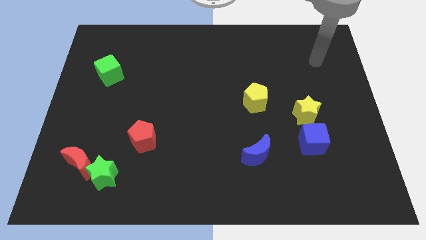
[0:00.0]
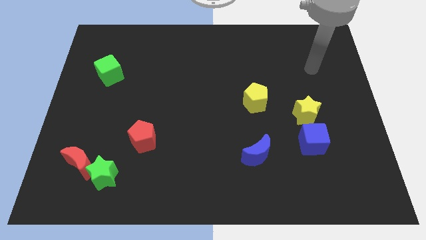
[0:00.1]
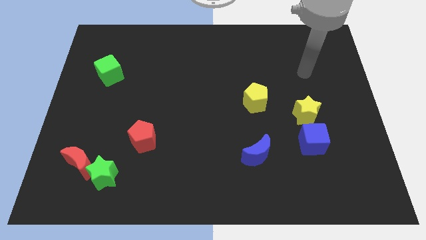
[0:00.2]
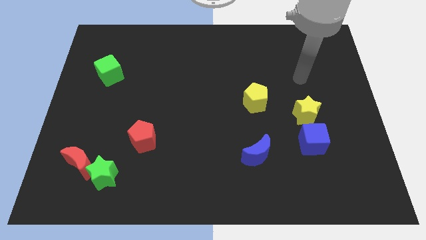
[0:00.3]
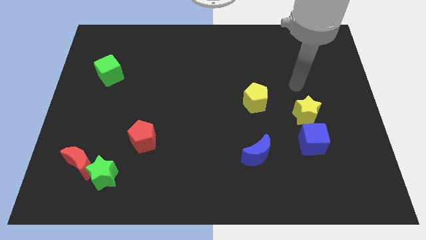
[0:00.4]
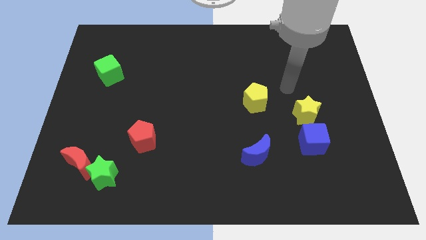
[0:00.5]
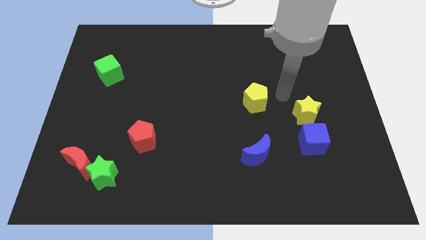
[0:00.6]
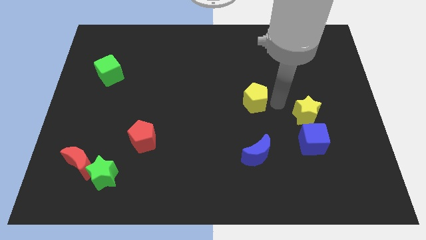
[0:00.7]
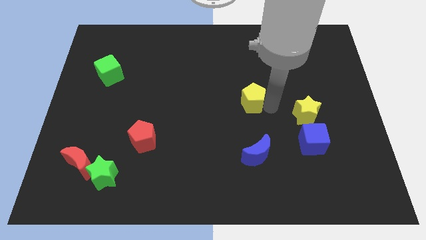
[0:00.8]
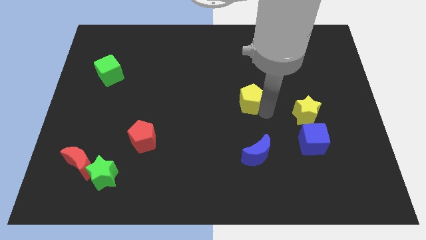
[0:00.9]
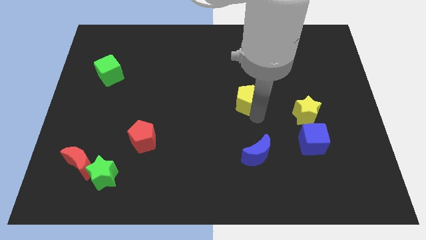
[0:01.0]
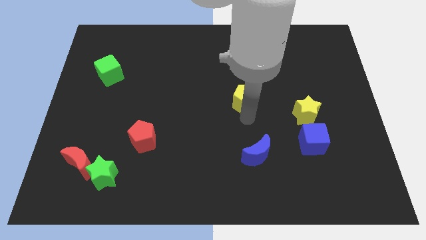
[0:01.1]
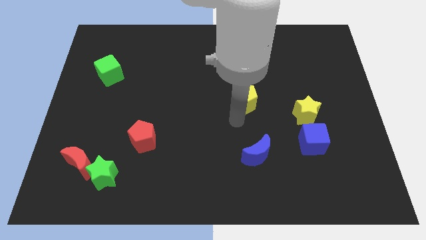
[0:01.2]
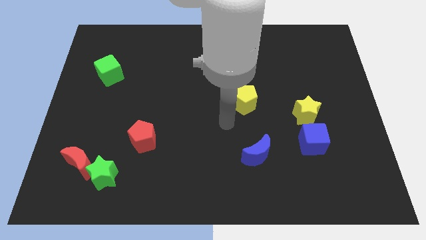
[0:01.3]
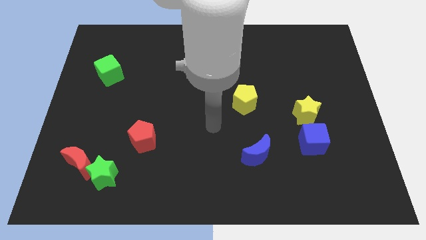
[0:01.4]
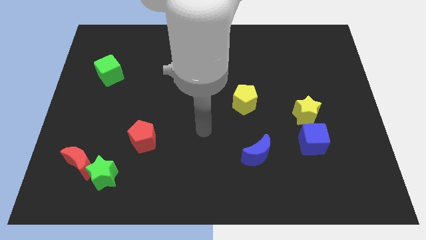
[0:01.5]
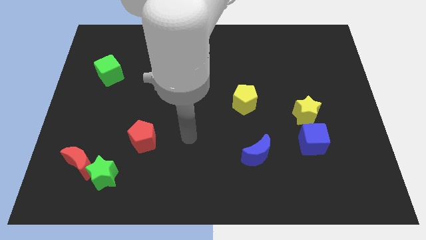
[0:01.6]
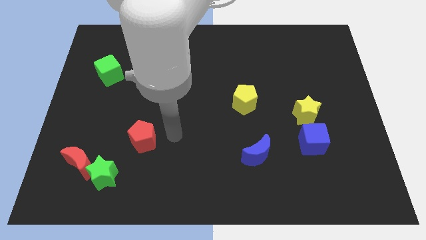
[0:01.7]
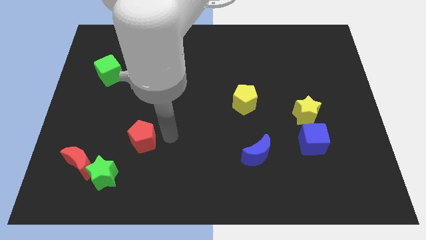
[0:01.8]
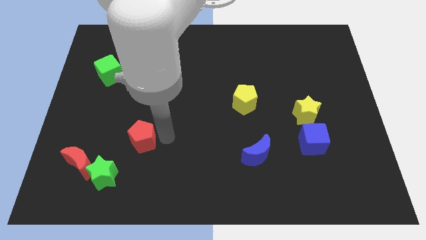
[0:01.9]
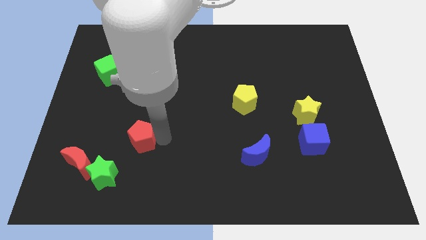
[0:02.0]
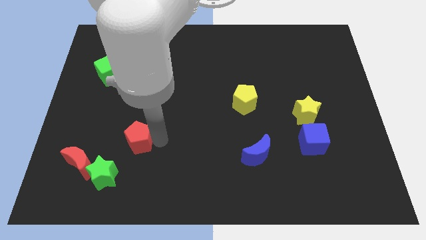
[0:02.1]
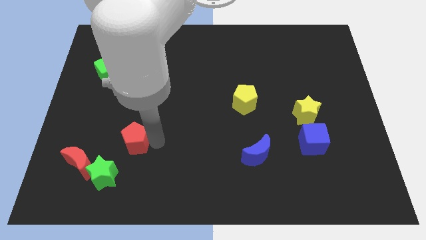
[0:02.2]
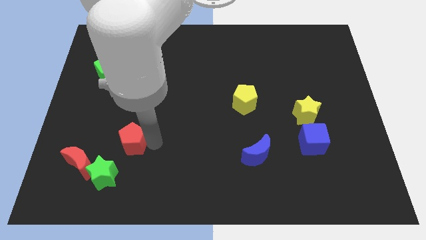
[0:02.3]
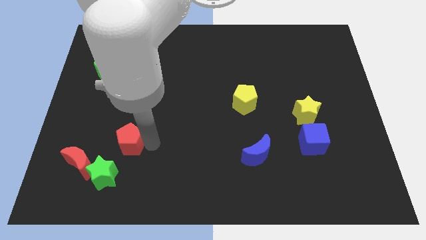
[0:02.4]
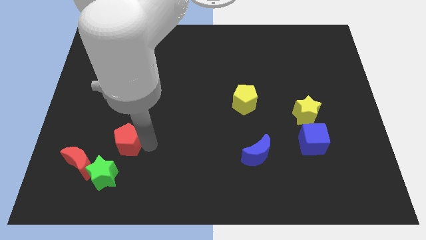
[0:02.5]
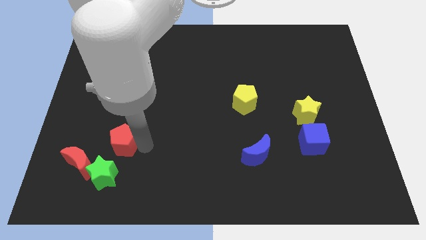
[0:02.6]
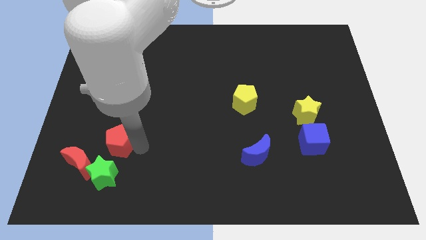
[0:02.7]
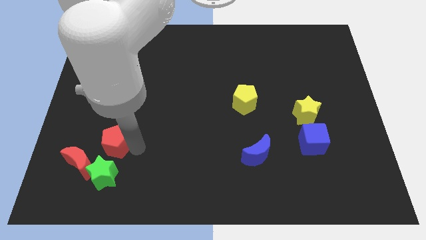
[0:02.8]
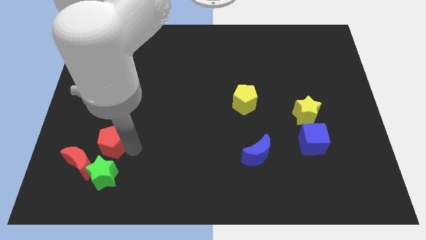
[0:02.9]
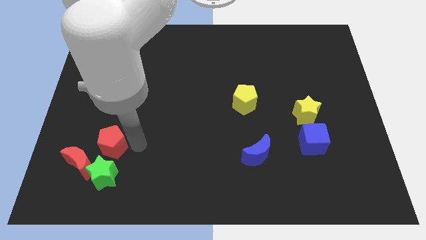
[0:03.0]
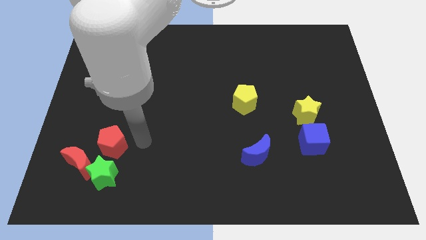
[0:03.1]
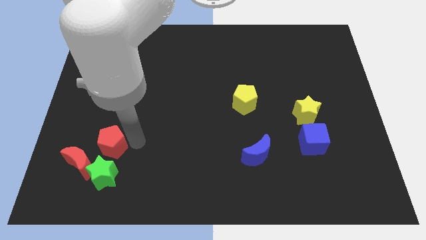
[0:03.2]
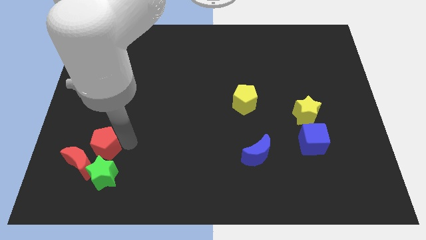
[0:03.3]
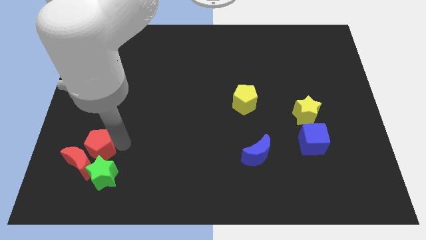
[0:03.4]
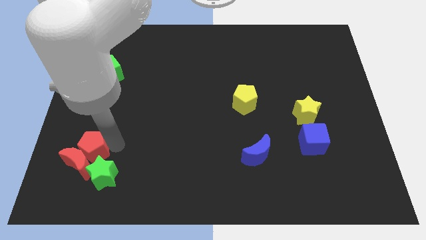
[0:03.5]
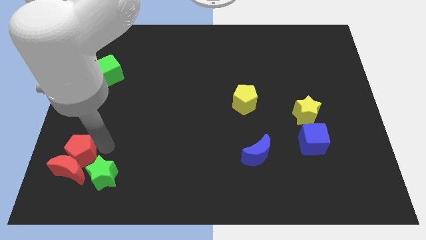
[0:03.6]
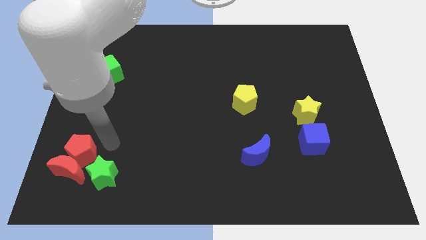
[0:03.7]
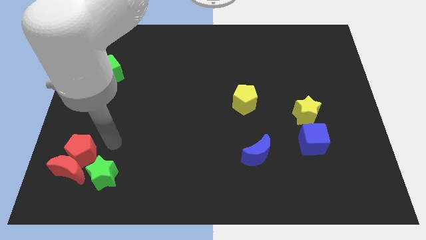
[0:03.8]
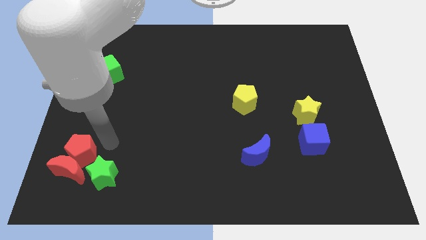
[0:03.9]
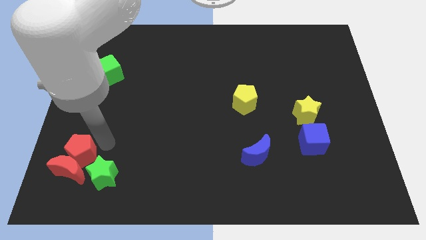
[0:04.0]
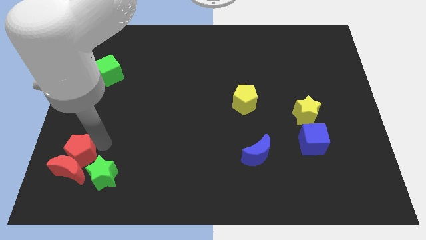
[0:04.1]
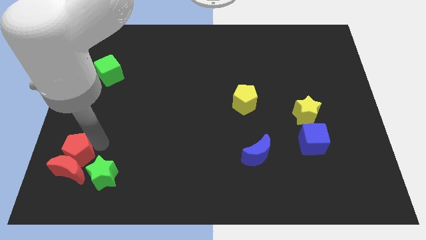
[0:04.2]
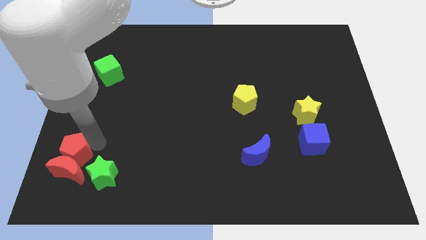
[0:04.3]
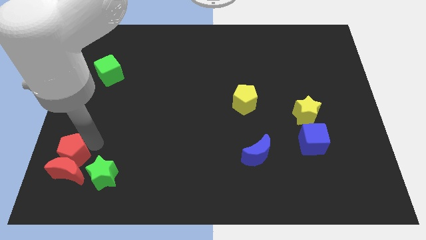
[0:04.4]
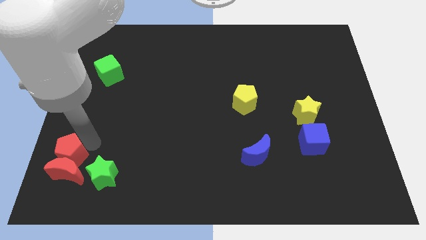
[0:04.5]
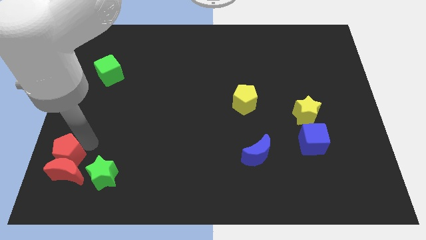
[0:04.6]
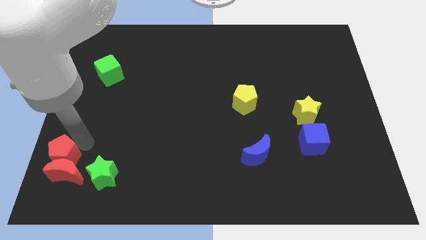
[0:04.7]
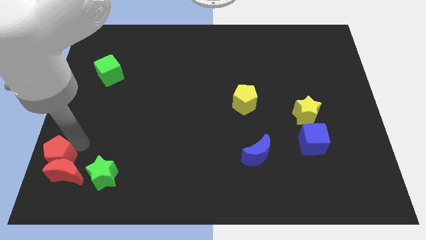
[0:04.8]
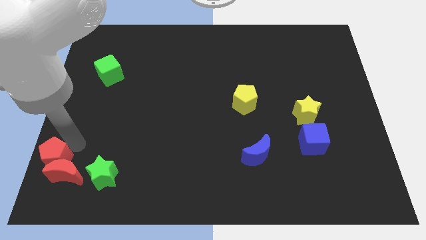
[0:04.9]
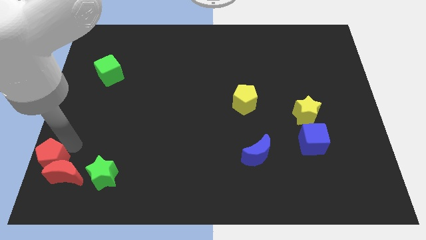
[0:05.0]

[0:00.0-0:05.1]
put the red pentagon to the lower left corner

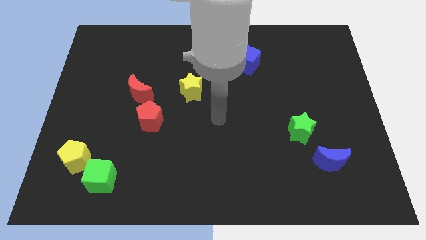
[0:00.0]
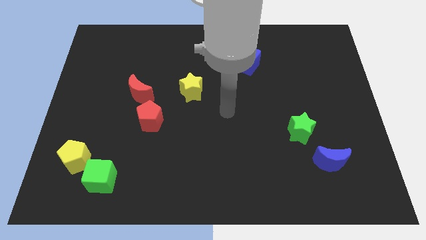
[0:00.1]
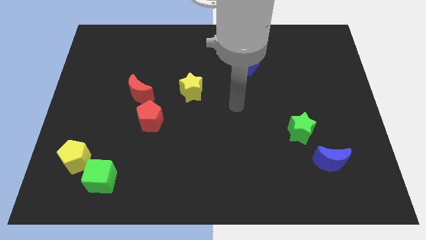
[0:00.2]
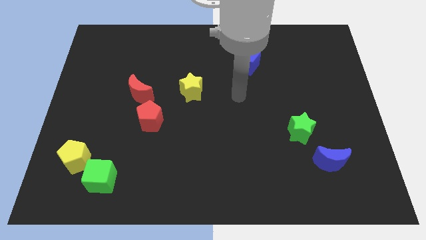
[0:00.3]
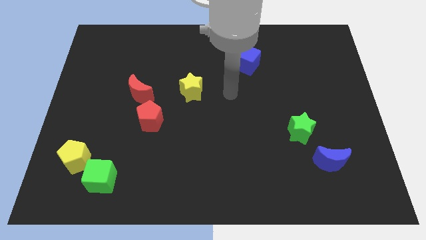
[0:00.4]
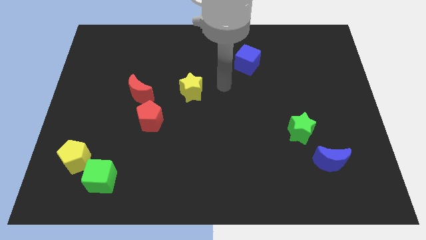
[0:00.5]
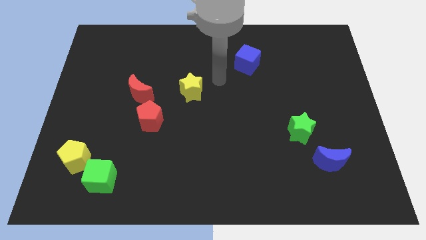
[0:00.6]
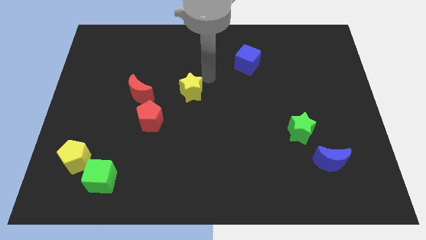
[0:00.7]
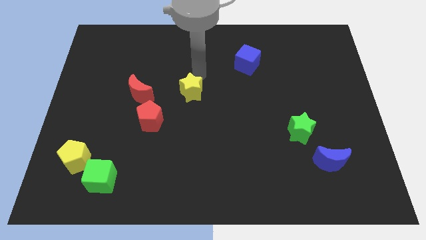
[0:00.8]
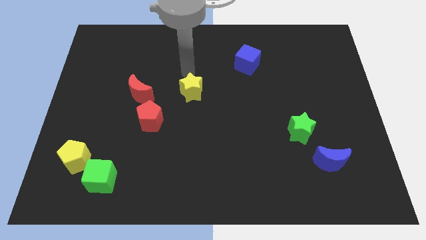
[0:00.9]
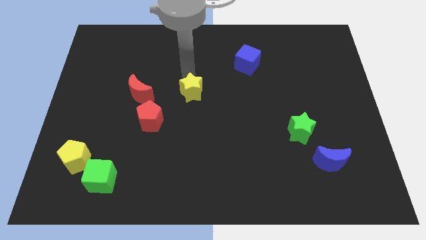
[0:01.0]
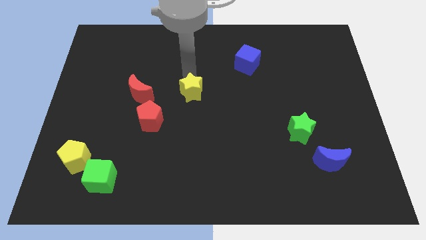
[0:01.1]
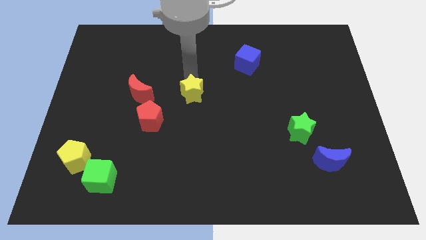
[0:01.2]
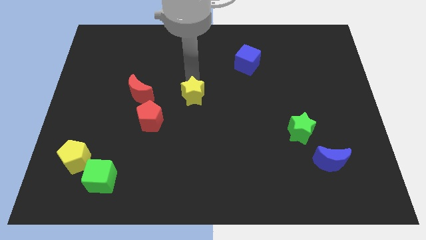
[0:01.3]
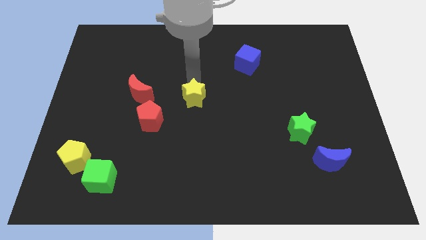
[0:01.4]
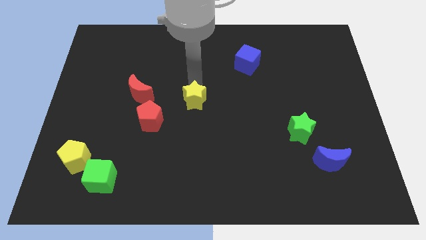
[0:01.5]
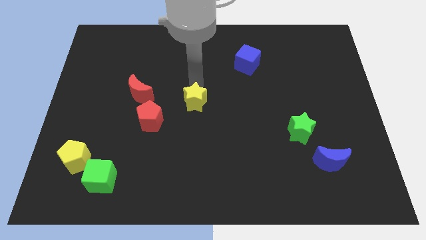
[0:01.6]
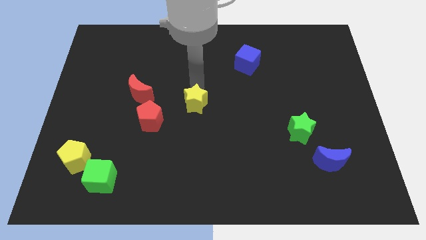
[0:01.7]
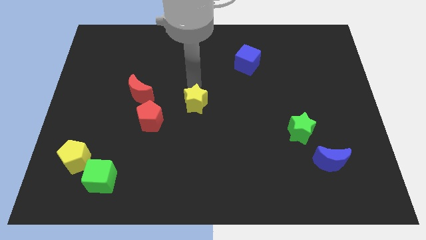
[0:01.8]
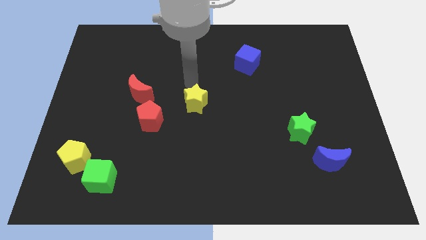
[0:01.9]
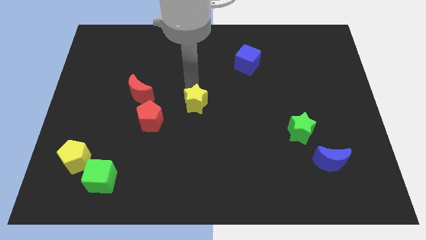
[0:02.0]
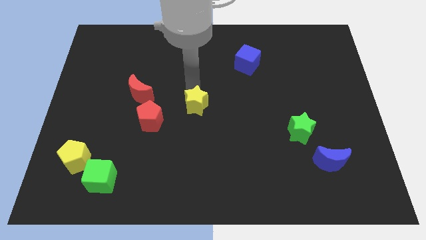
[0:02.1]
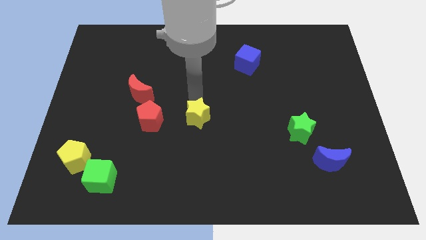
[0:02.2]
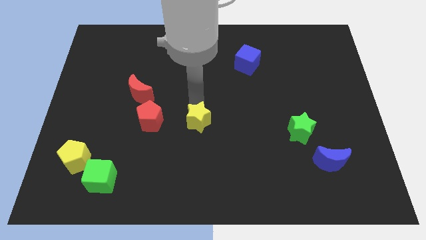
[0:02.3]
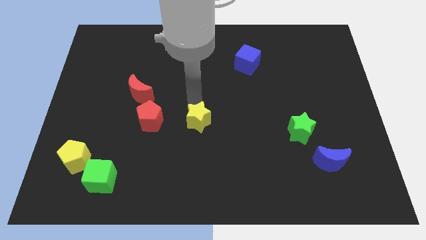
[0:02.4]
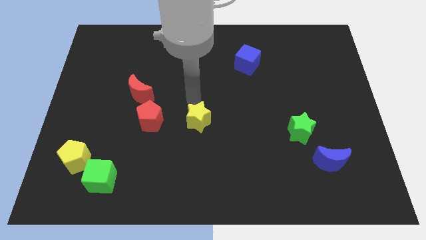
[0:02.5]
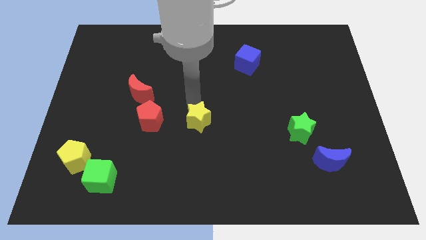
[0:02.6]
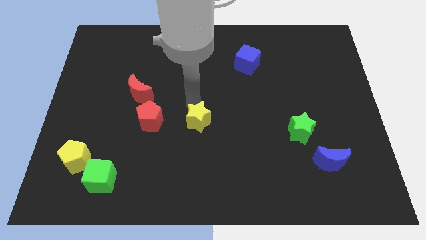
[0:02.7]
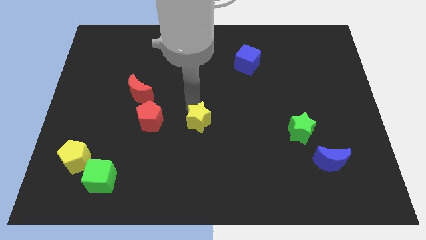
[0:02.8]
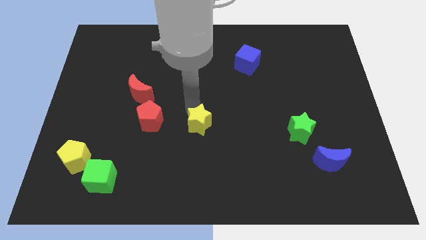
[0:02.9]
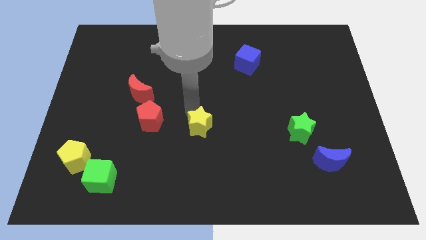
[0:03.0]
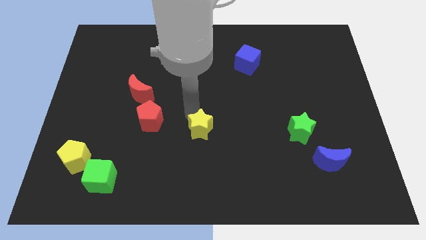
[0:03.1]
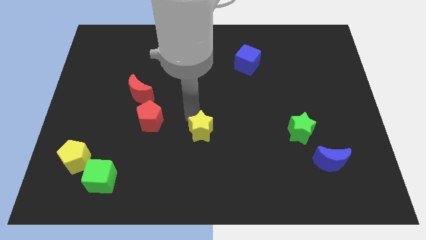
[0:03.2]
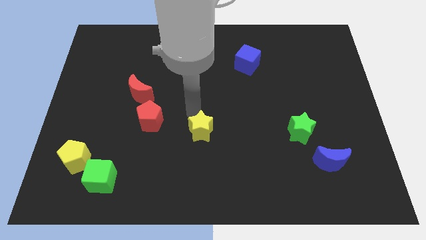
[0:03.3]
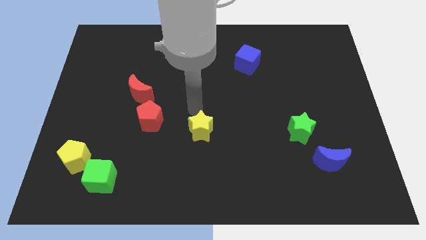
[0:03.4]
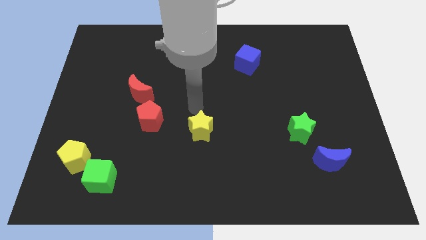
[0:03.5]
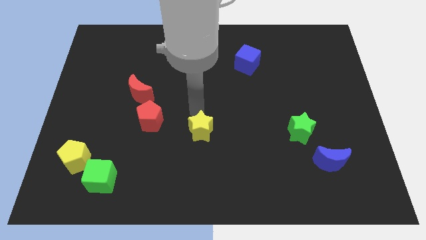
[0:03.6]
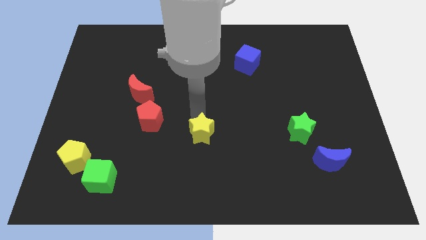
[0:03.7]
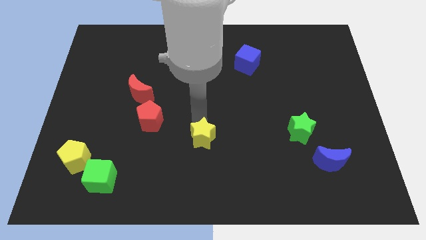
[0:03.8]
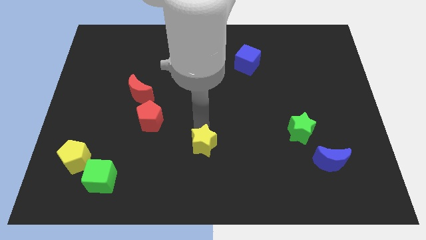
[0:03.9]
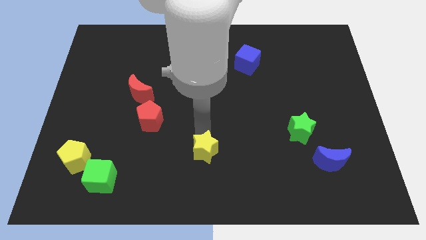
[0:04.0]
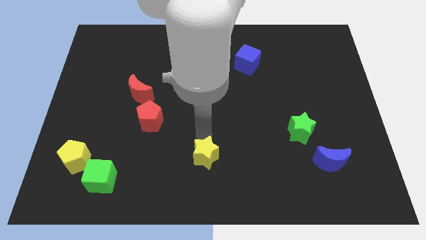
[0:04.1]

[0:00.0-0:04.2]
put the yellow star to the bottom
